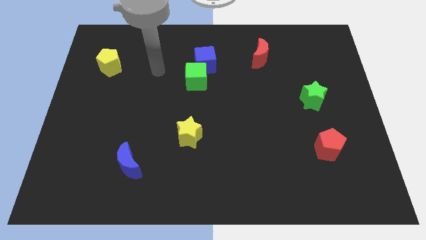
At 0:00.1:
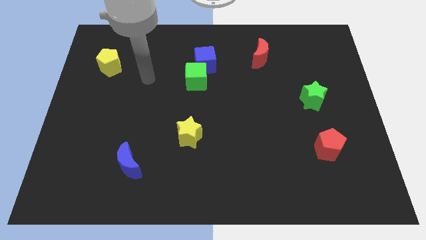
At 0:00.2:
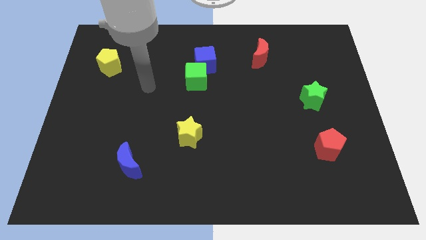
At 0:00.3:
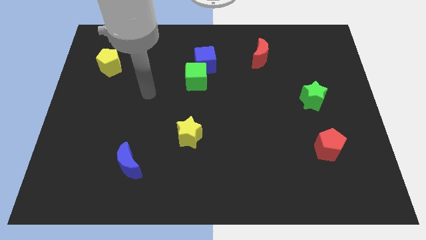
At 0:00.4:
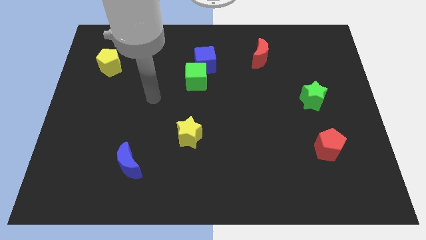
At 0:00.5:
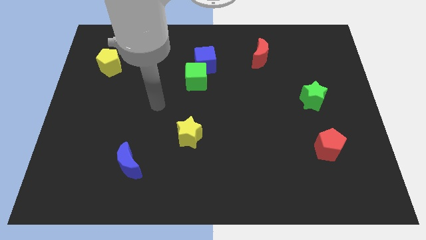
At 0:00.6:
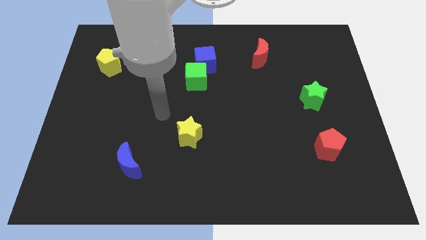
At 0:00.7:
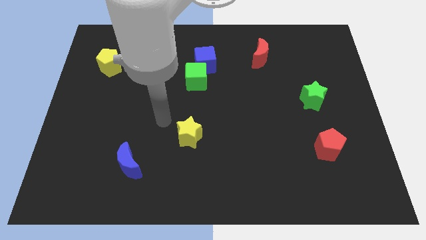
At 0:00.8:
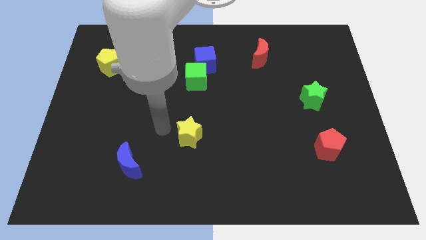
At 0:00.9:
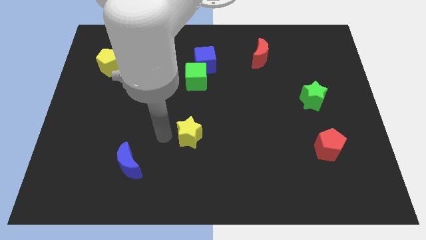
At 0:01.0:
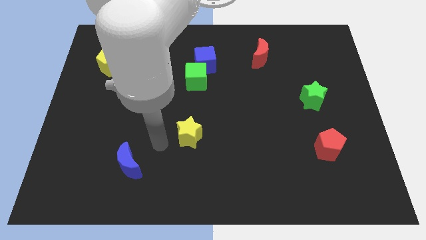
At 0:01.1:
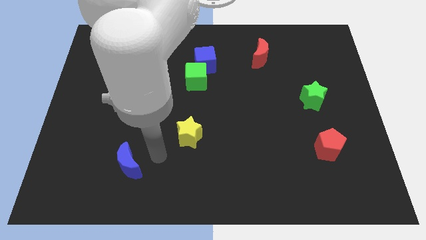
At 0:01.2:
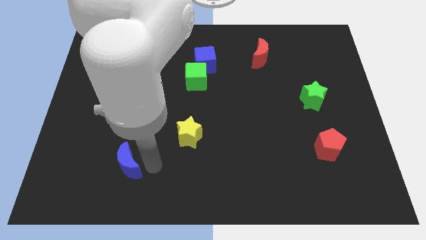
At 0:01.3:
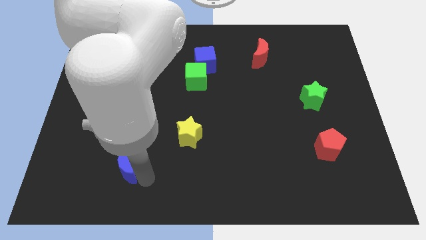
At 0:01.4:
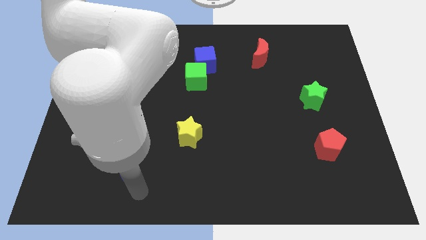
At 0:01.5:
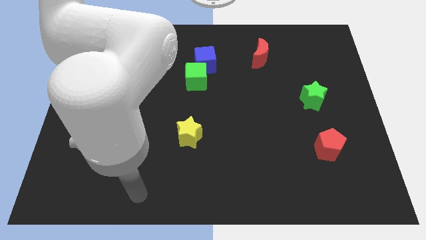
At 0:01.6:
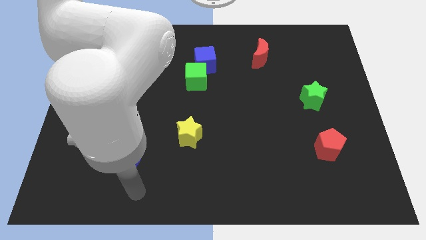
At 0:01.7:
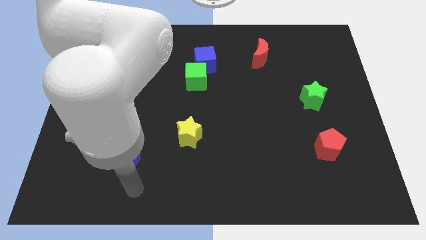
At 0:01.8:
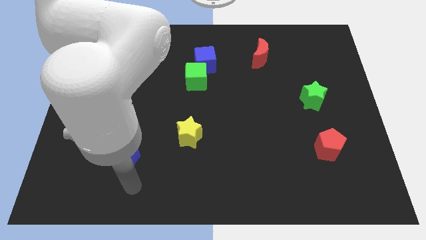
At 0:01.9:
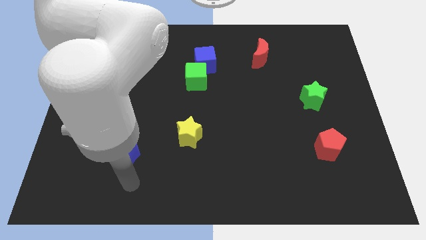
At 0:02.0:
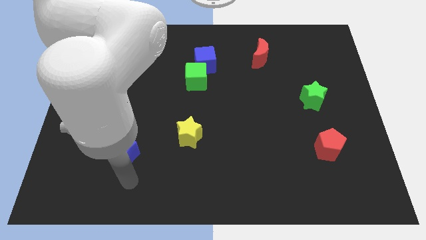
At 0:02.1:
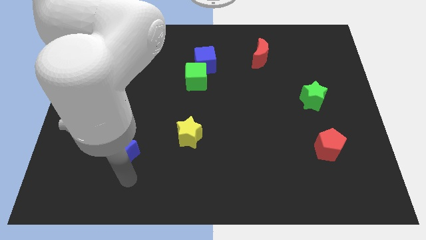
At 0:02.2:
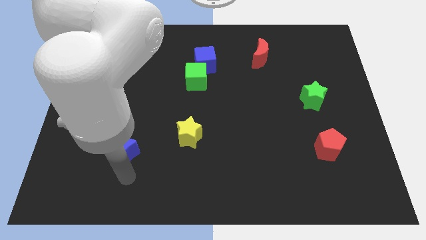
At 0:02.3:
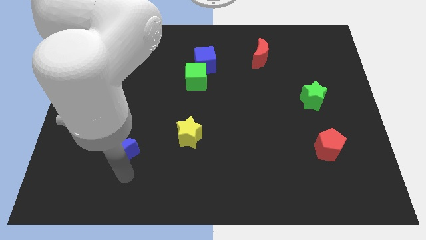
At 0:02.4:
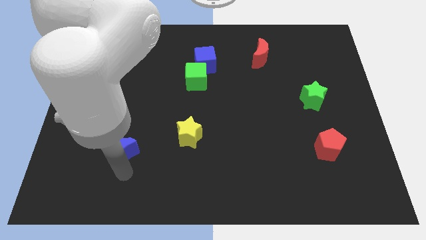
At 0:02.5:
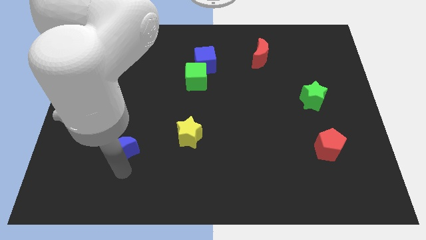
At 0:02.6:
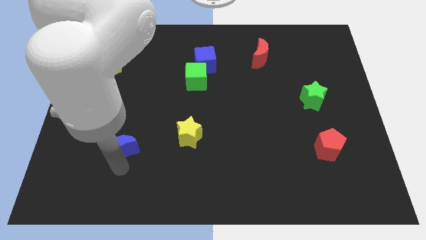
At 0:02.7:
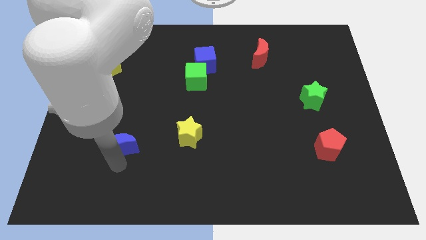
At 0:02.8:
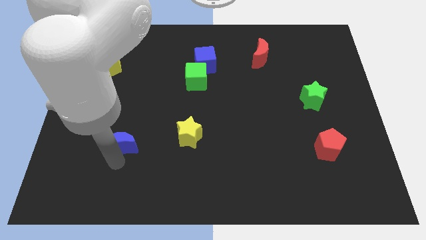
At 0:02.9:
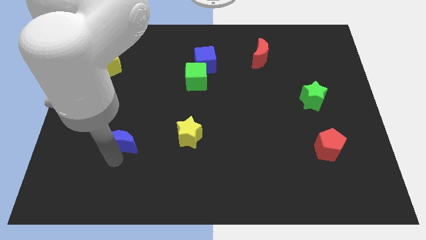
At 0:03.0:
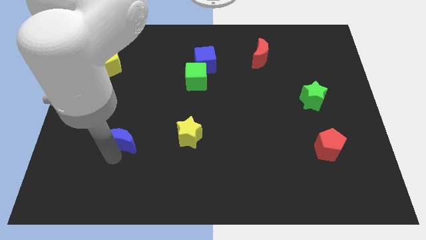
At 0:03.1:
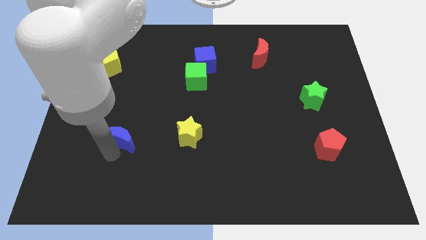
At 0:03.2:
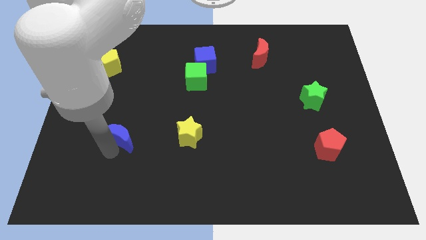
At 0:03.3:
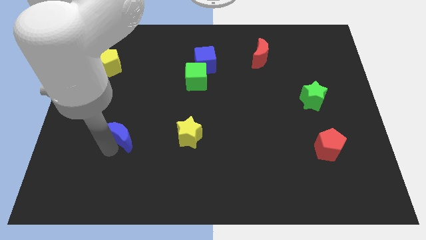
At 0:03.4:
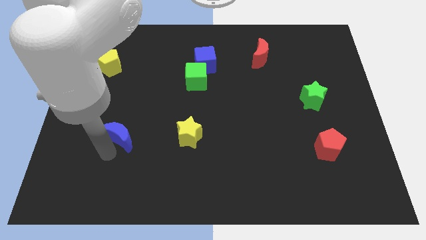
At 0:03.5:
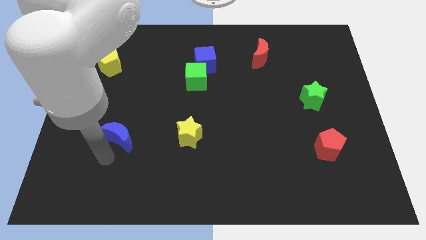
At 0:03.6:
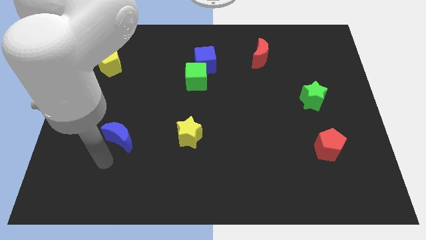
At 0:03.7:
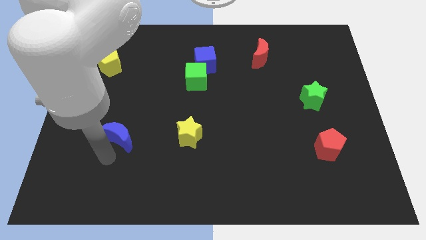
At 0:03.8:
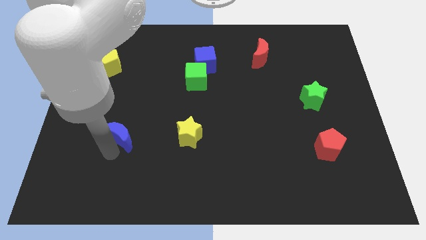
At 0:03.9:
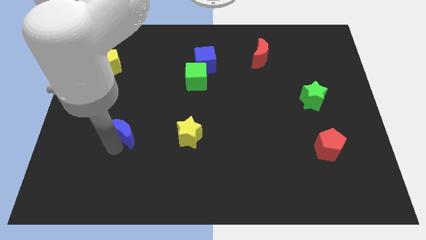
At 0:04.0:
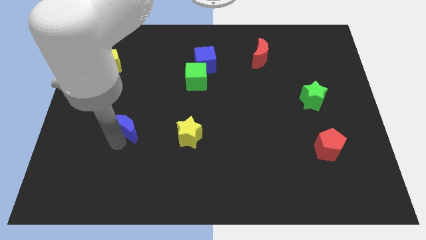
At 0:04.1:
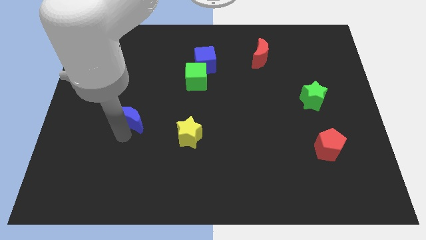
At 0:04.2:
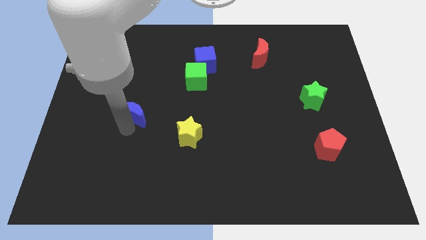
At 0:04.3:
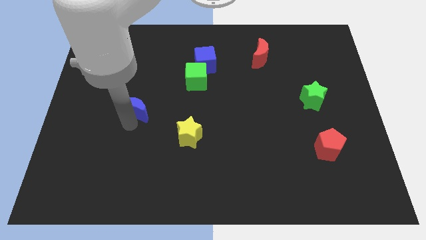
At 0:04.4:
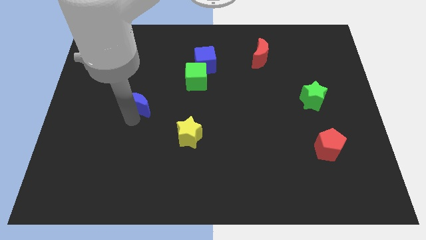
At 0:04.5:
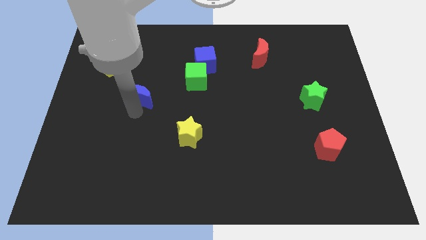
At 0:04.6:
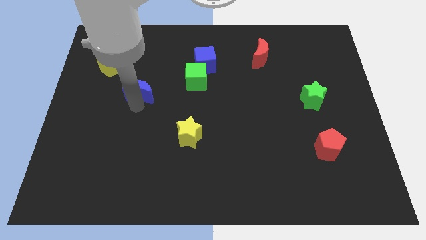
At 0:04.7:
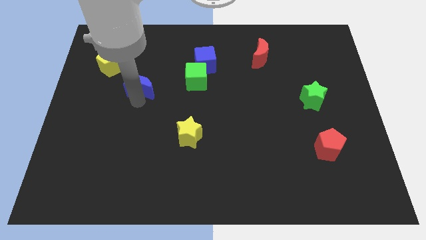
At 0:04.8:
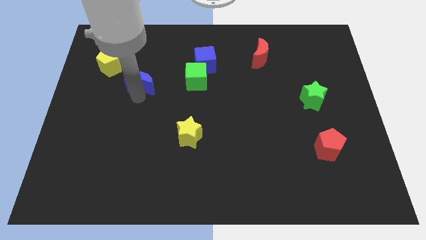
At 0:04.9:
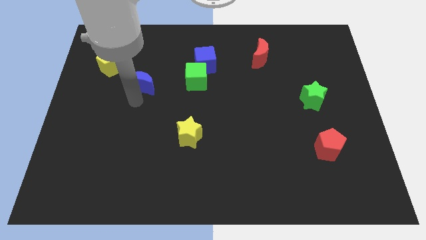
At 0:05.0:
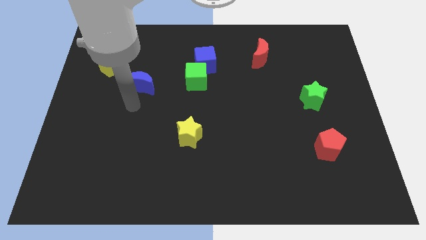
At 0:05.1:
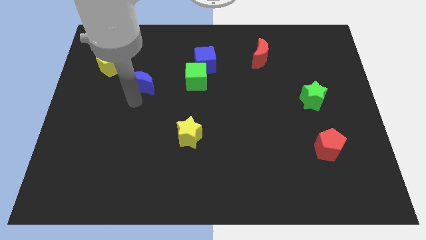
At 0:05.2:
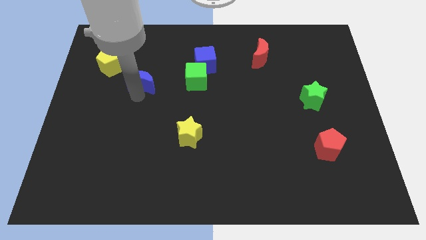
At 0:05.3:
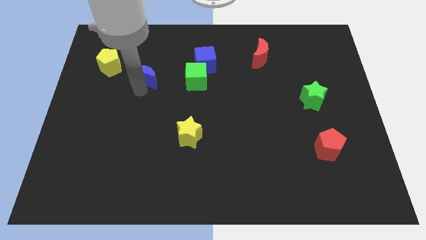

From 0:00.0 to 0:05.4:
push the blue moon right of the yellow pentagon

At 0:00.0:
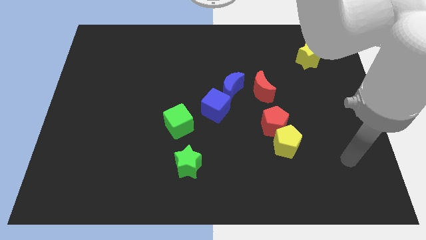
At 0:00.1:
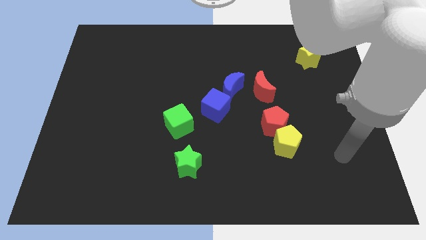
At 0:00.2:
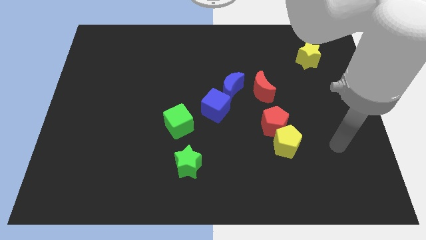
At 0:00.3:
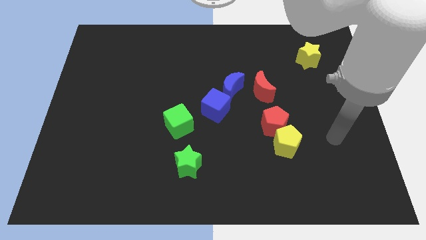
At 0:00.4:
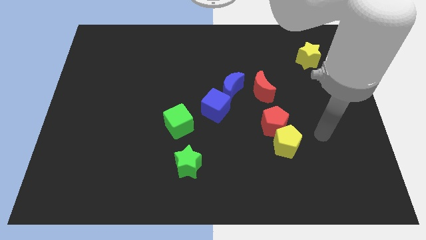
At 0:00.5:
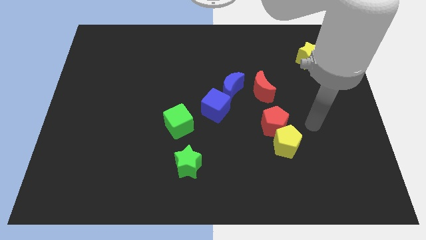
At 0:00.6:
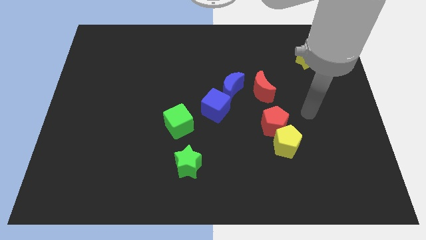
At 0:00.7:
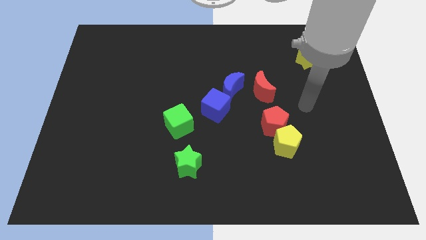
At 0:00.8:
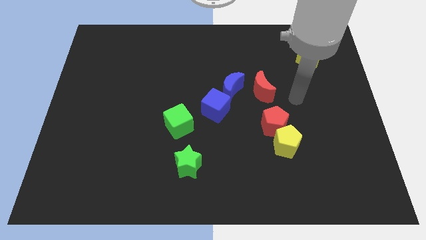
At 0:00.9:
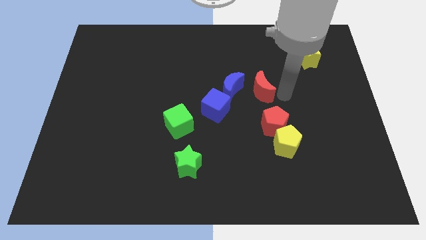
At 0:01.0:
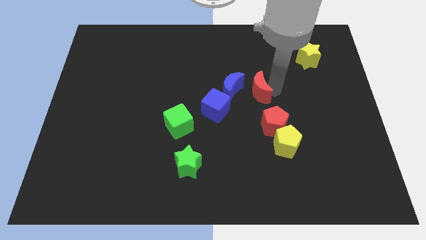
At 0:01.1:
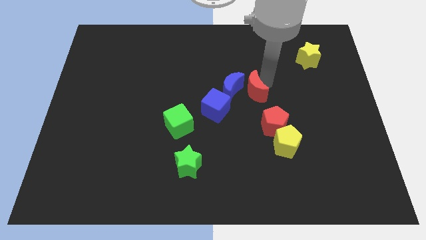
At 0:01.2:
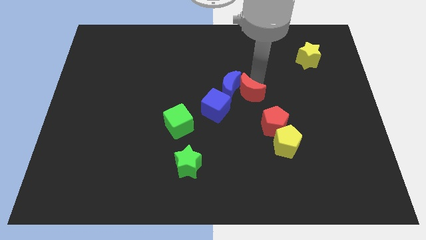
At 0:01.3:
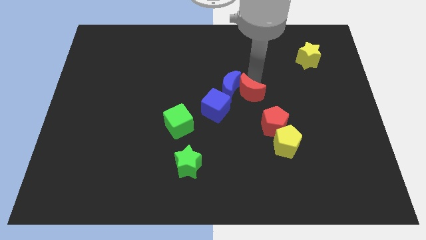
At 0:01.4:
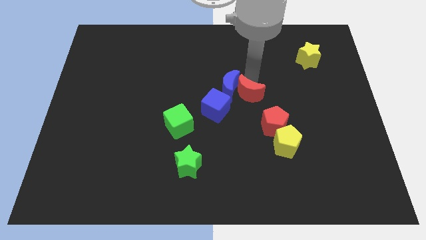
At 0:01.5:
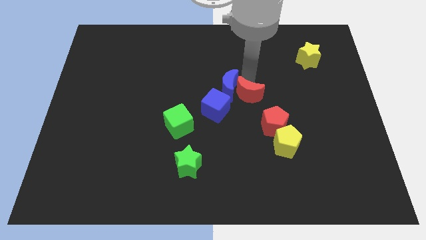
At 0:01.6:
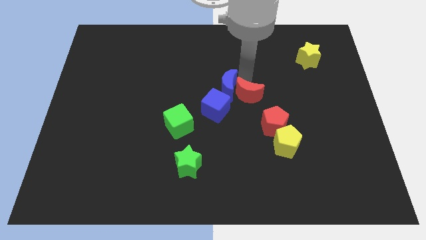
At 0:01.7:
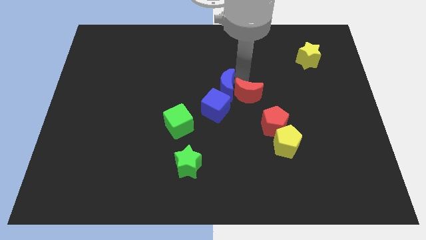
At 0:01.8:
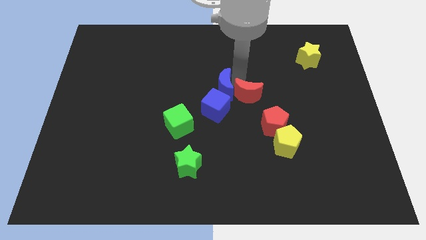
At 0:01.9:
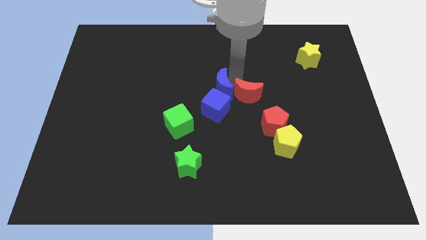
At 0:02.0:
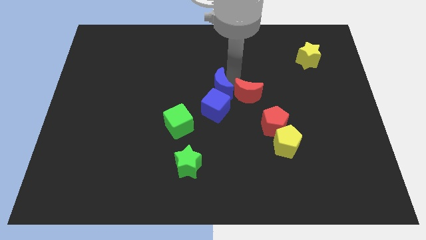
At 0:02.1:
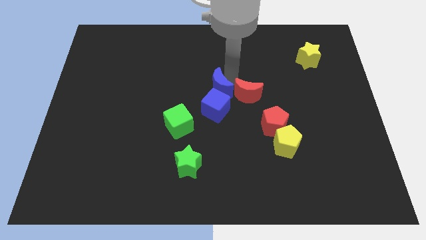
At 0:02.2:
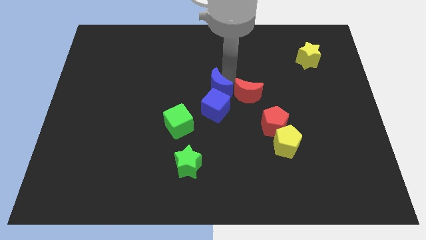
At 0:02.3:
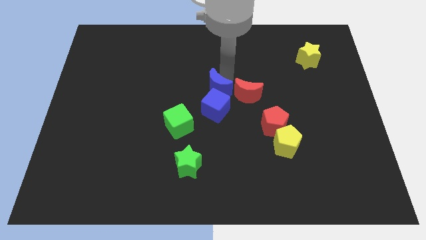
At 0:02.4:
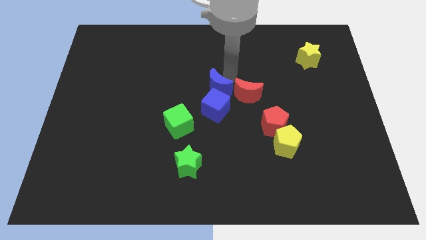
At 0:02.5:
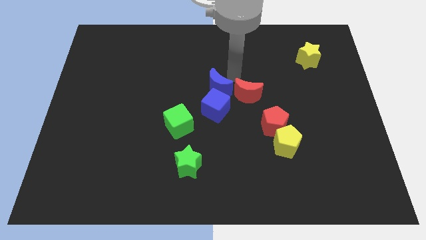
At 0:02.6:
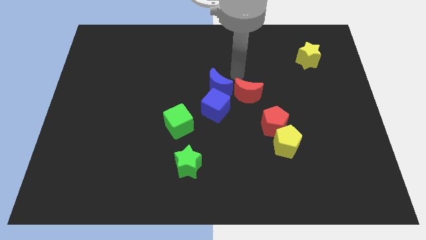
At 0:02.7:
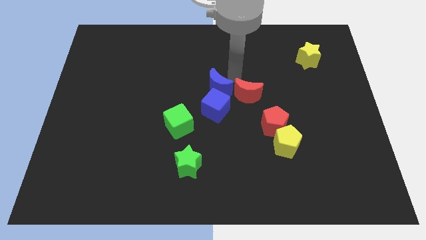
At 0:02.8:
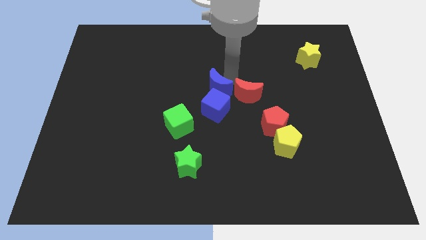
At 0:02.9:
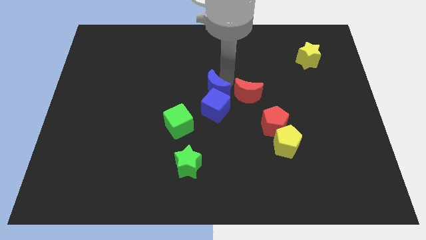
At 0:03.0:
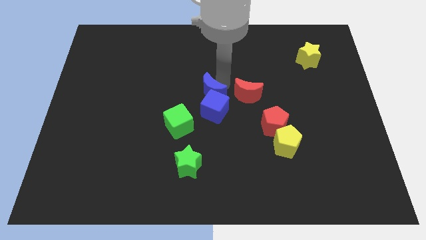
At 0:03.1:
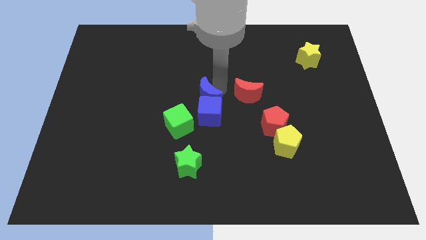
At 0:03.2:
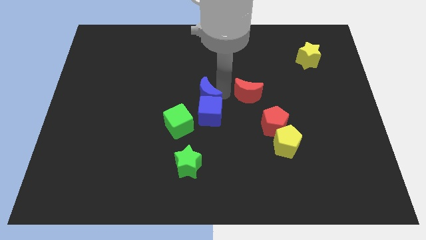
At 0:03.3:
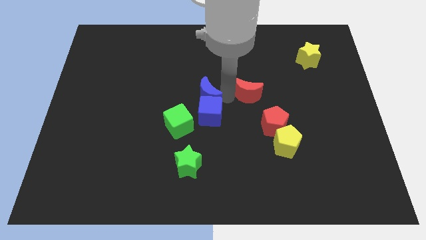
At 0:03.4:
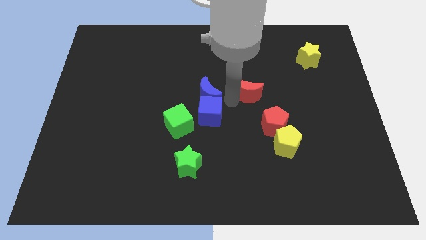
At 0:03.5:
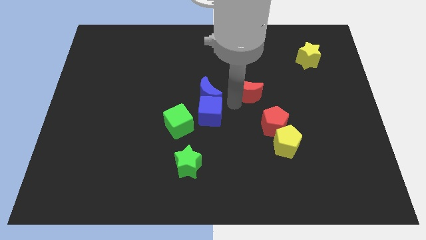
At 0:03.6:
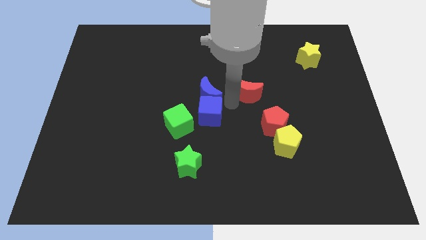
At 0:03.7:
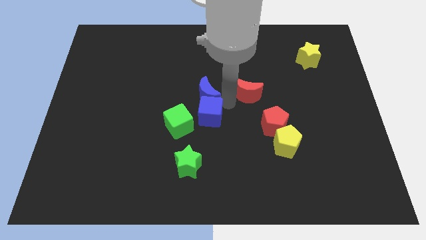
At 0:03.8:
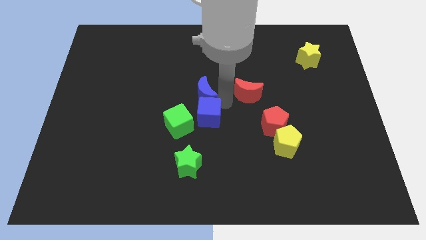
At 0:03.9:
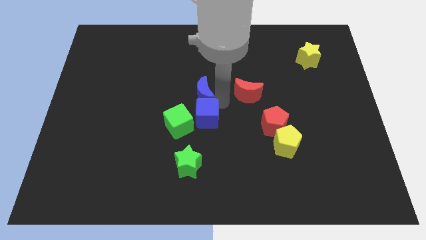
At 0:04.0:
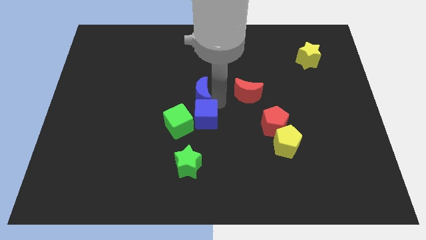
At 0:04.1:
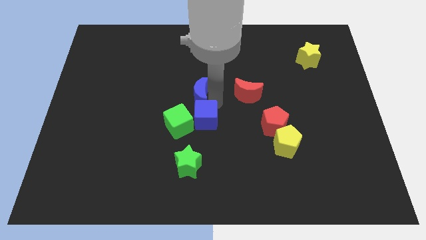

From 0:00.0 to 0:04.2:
push the blue moon to the top of the green cube
